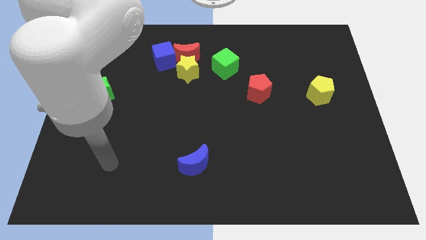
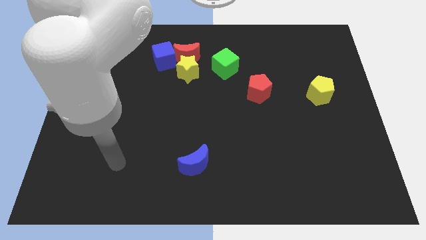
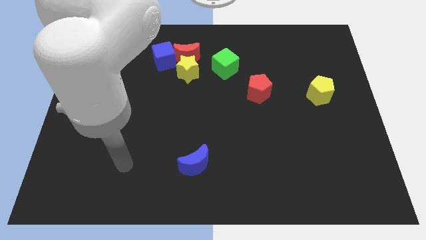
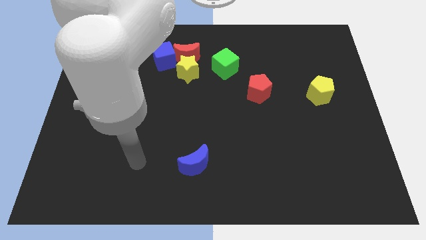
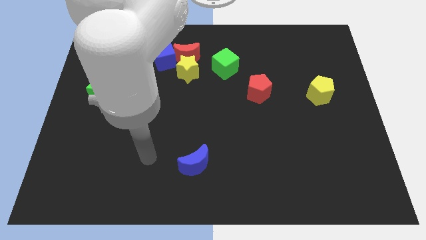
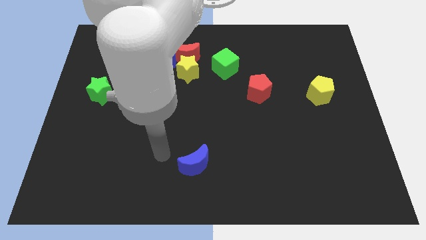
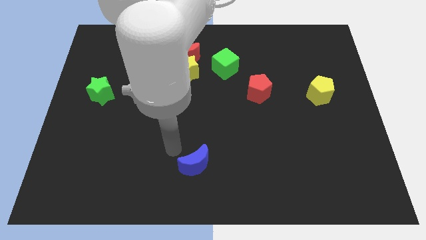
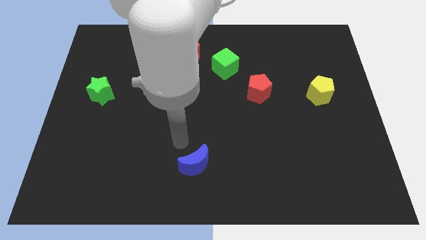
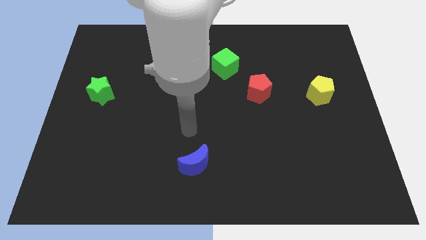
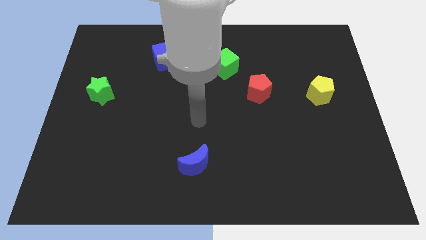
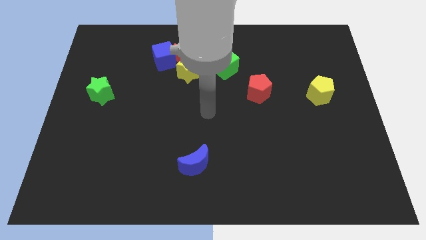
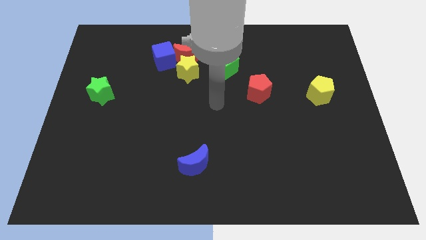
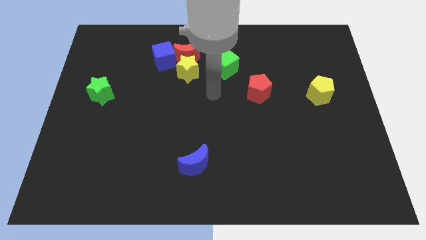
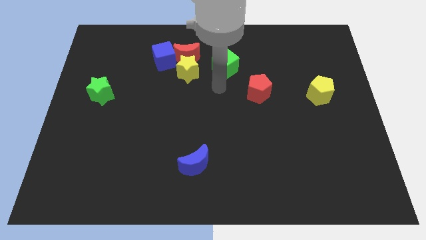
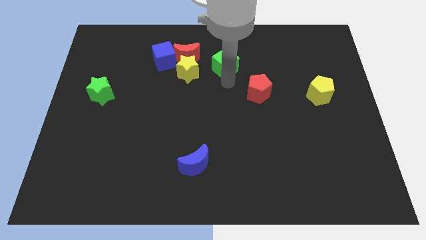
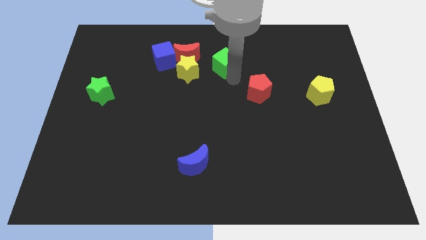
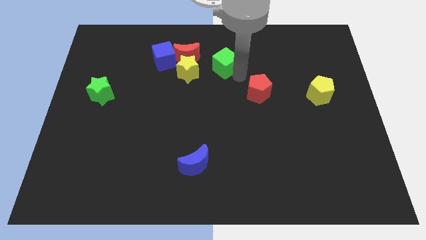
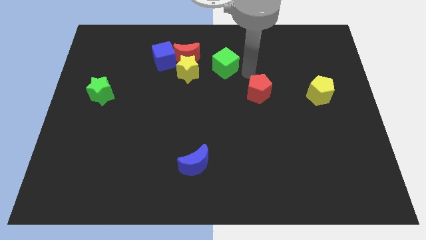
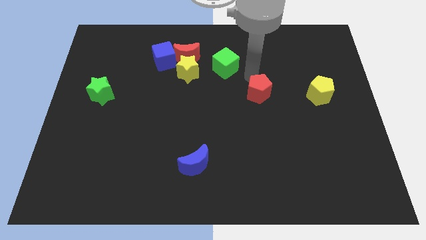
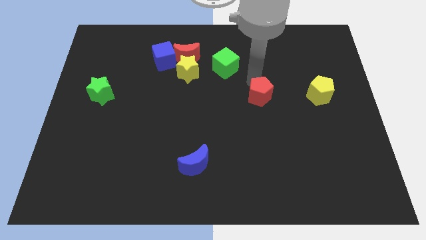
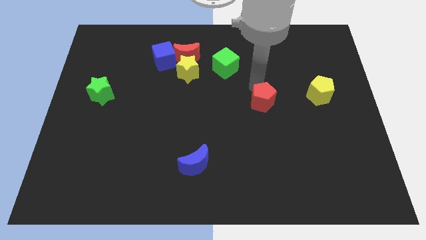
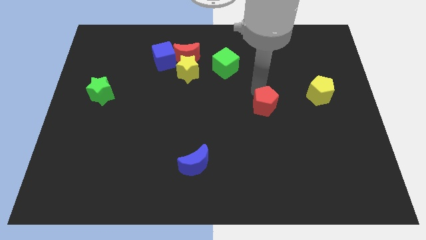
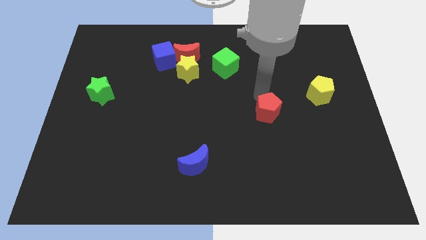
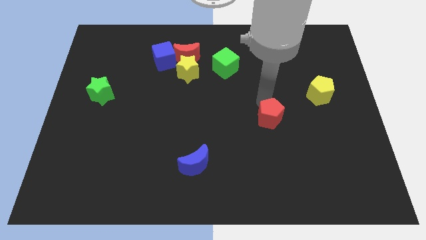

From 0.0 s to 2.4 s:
slightly move the red pentagon down

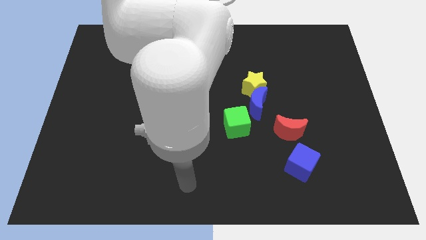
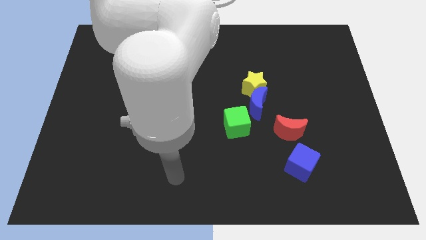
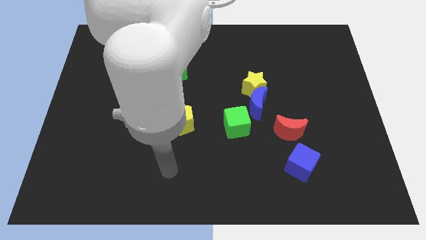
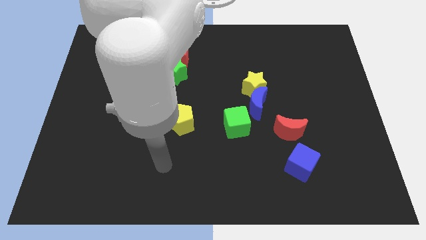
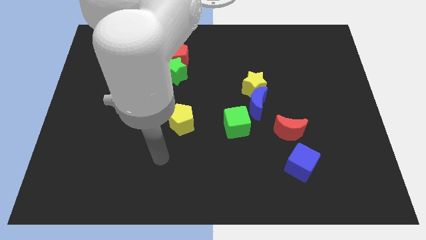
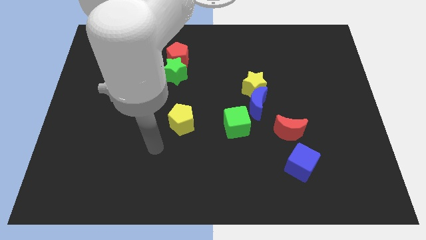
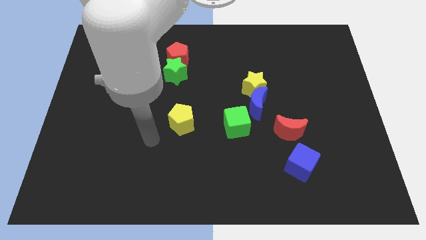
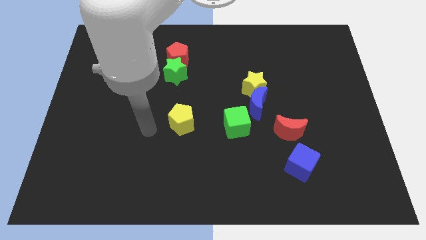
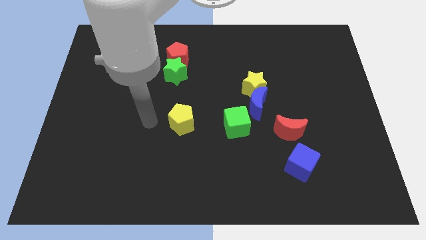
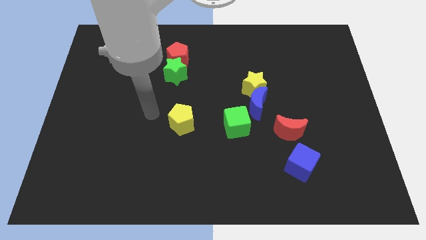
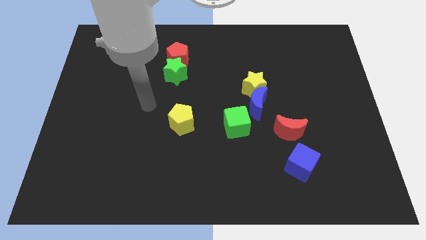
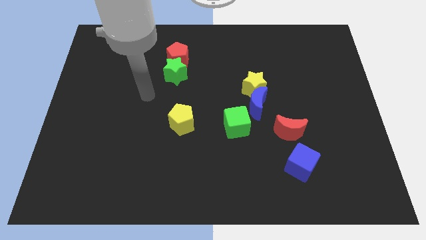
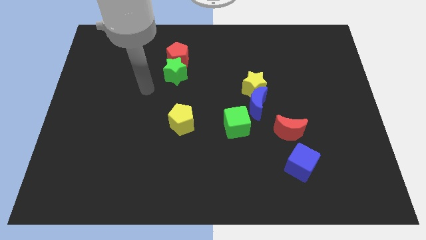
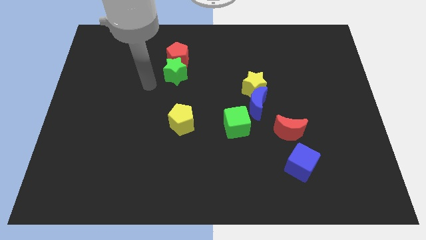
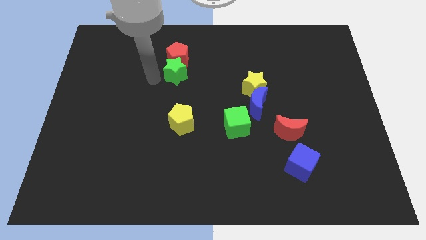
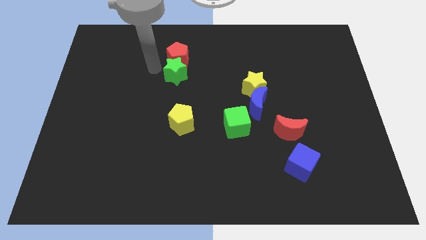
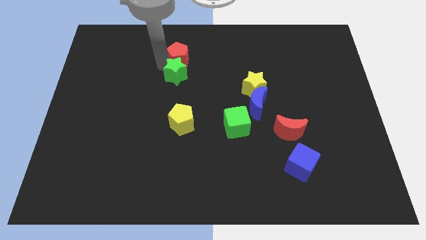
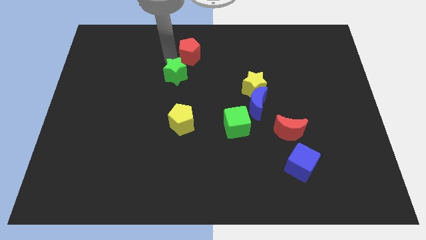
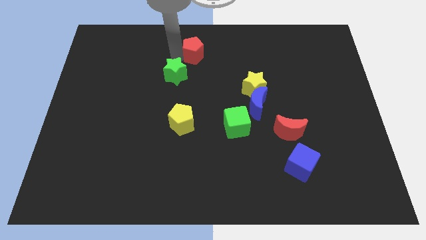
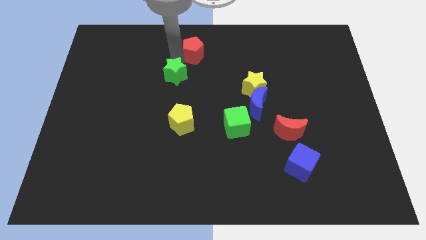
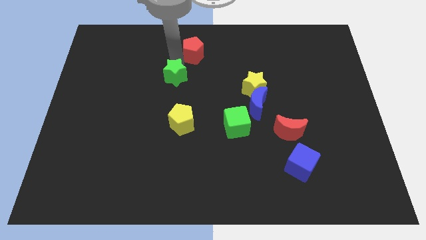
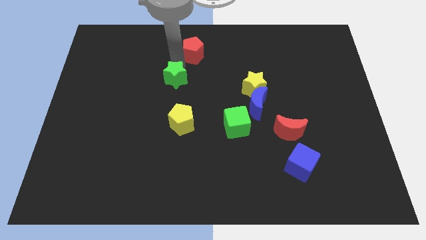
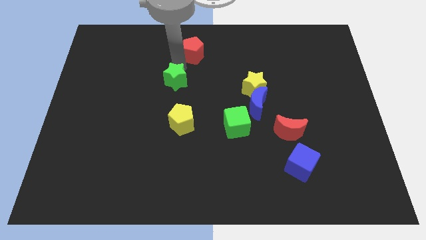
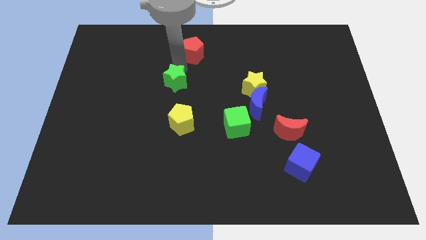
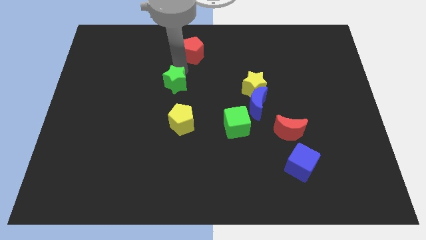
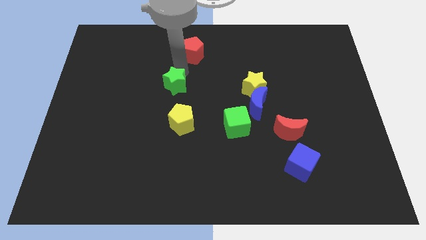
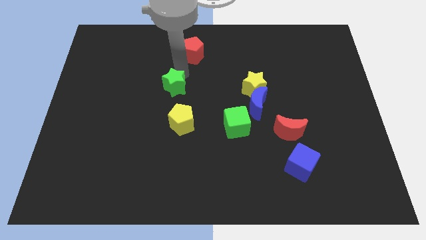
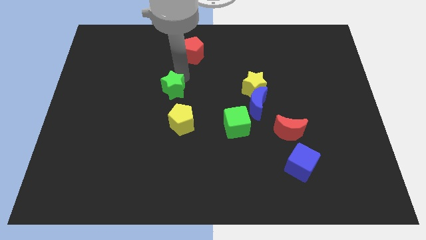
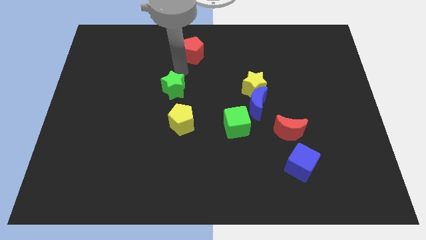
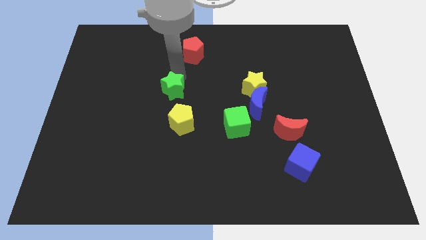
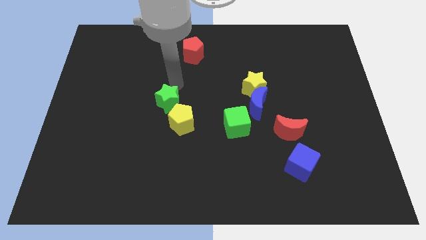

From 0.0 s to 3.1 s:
push the green star down a little bit

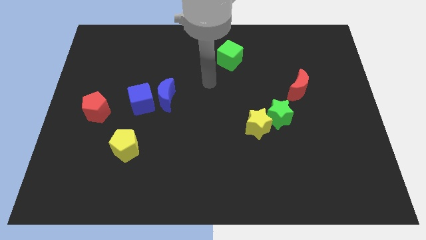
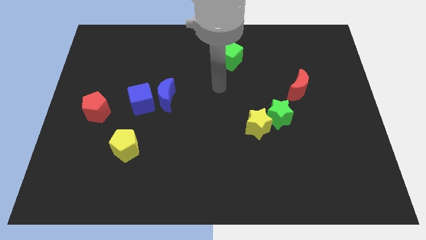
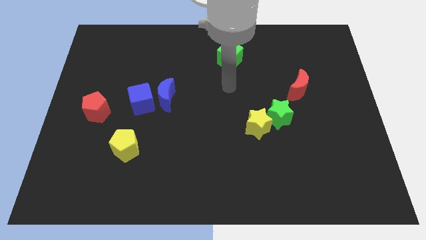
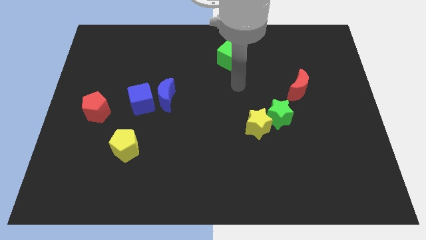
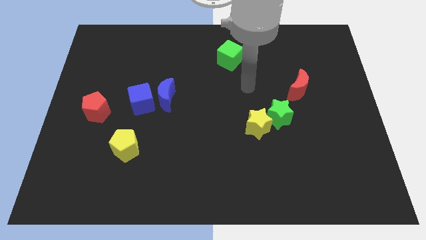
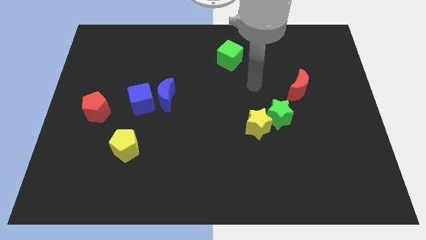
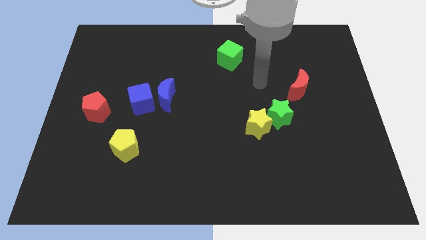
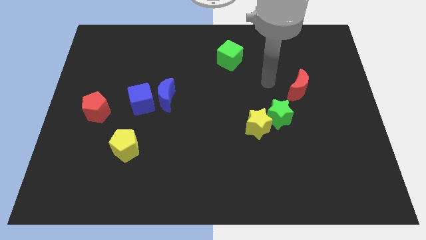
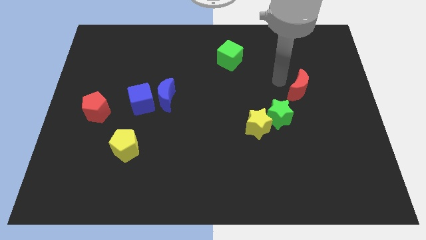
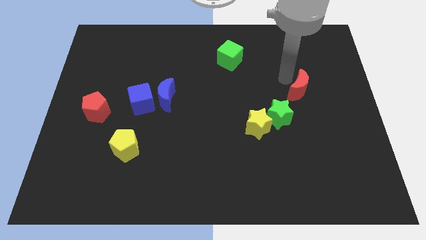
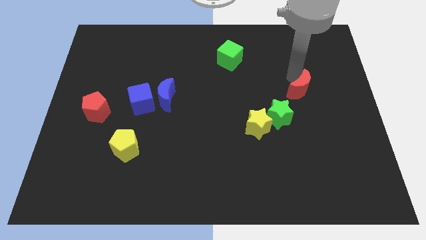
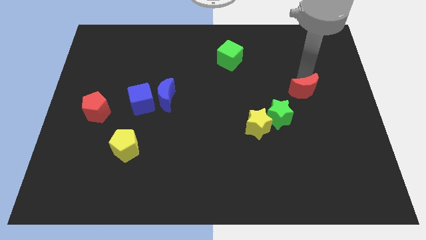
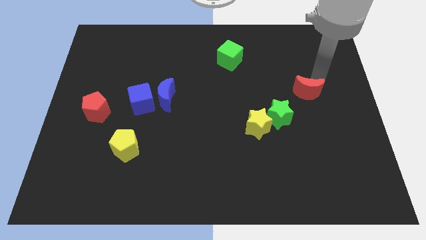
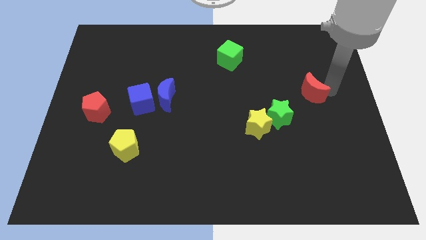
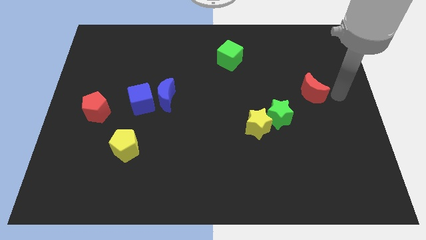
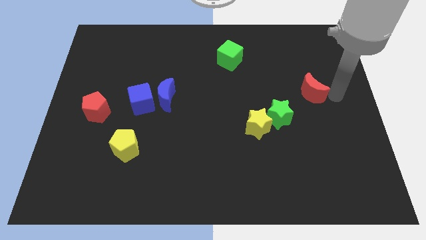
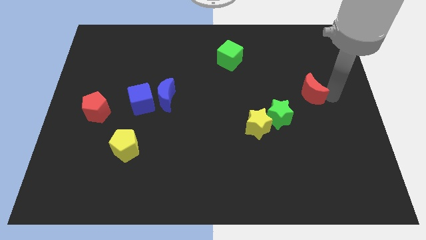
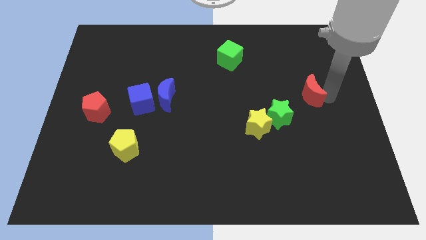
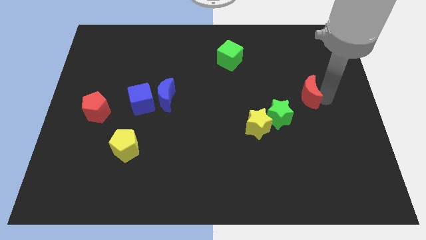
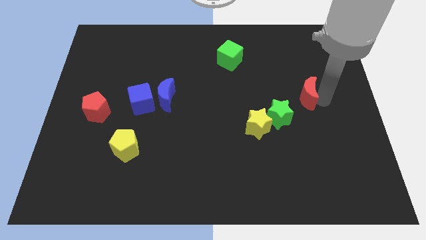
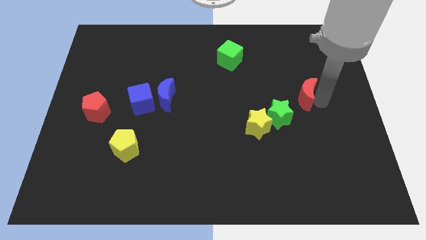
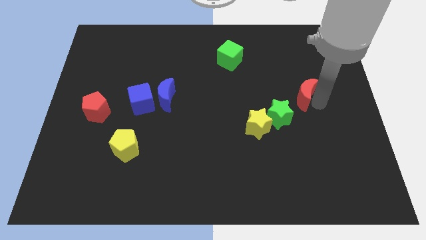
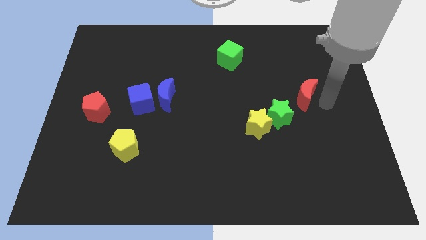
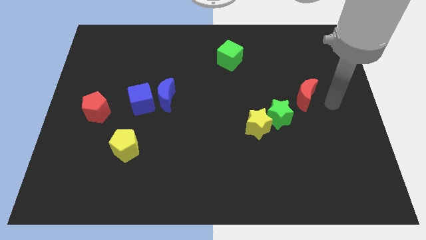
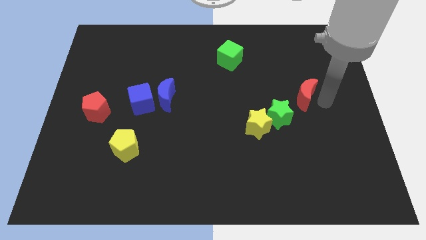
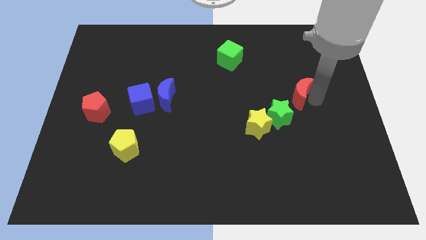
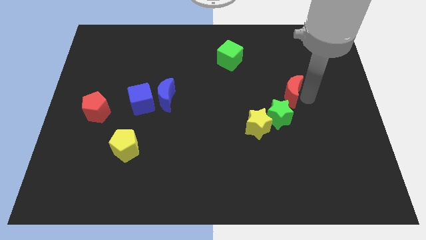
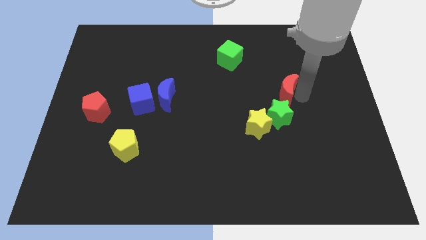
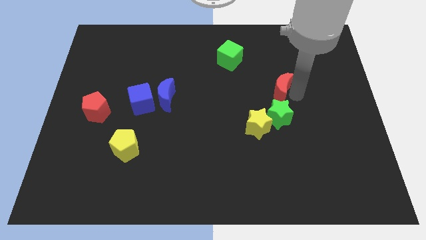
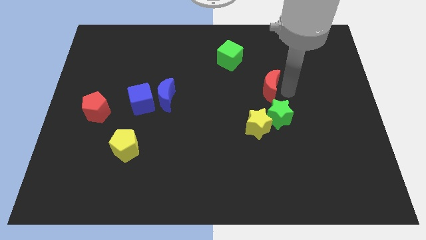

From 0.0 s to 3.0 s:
move the red moon a little bit left
